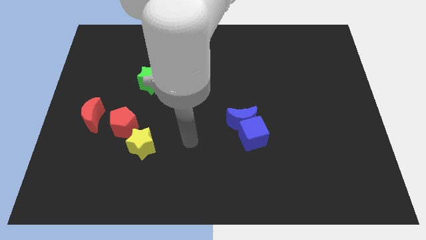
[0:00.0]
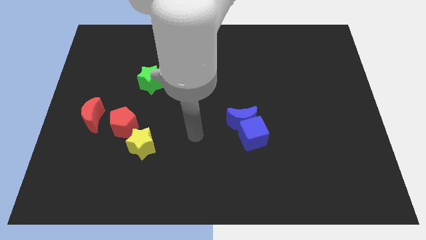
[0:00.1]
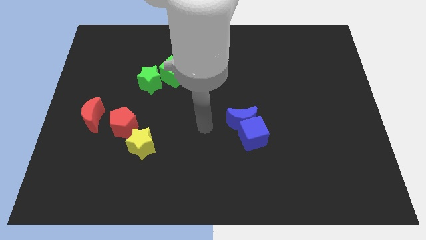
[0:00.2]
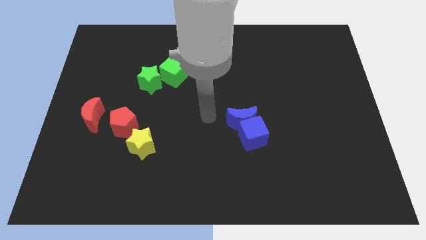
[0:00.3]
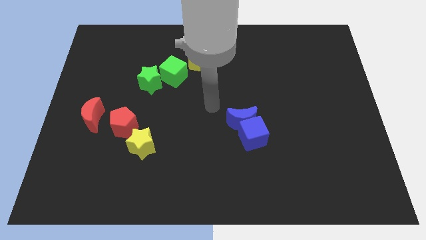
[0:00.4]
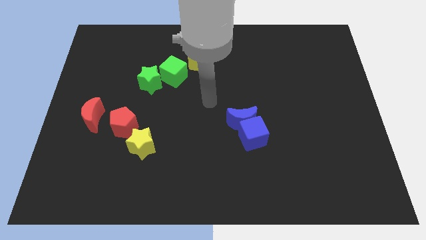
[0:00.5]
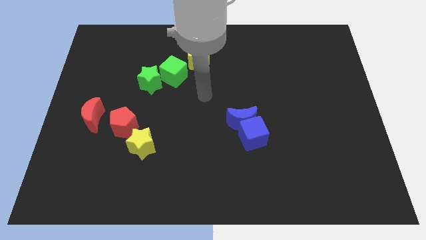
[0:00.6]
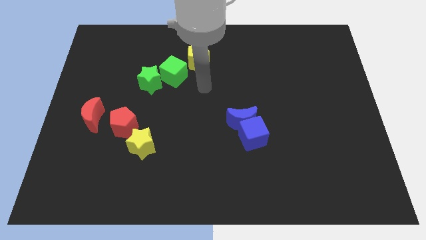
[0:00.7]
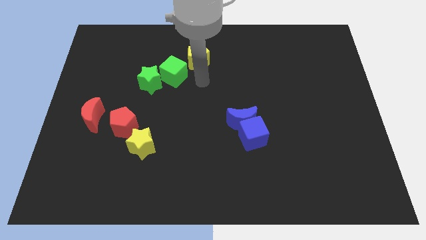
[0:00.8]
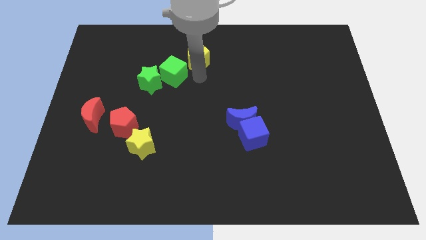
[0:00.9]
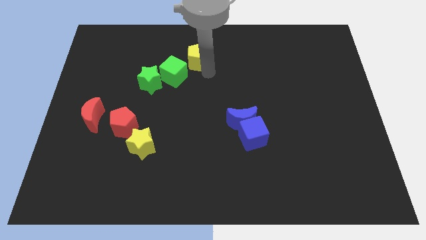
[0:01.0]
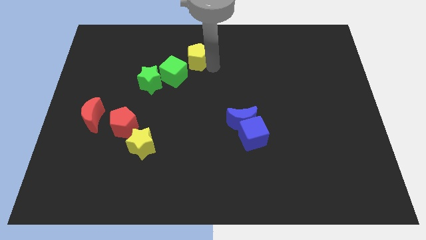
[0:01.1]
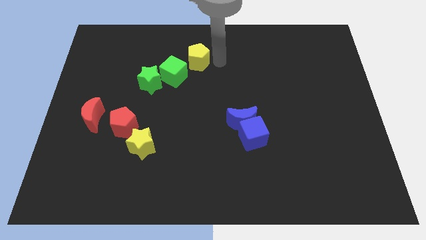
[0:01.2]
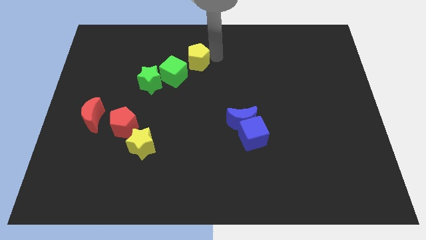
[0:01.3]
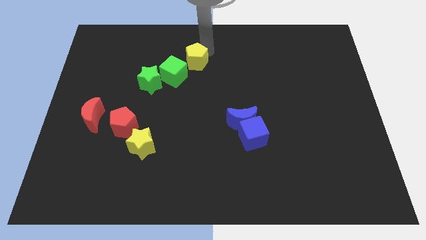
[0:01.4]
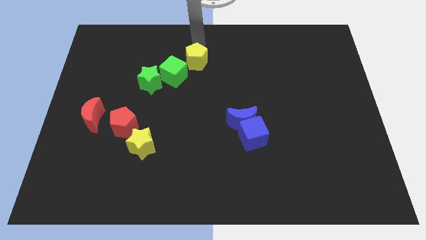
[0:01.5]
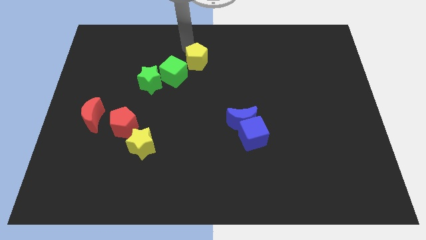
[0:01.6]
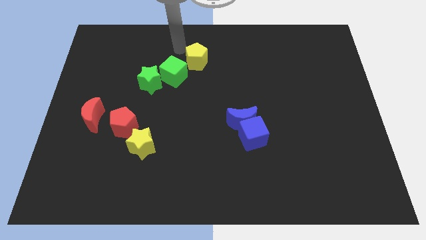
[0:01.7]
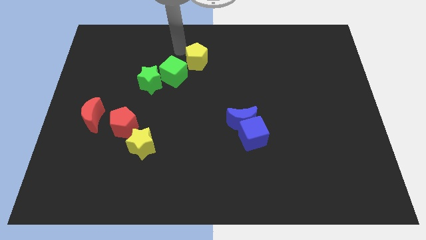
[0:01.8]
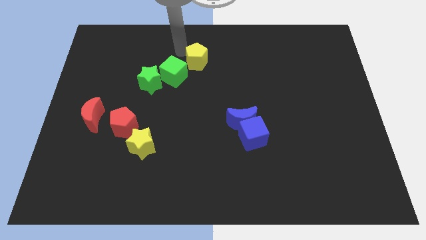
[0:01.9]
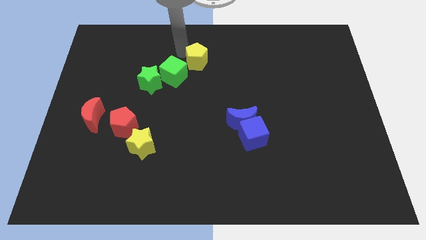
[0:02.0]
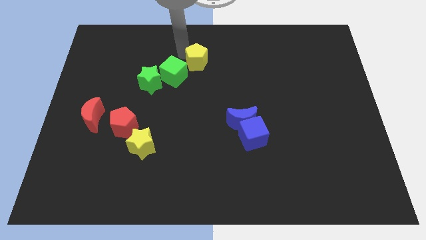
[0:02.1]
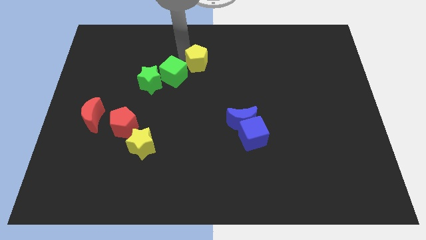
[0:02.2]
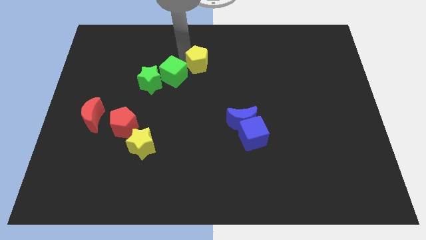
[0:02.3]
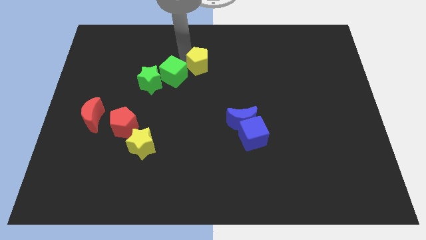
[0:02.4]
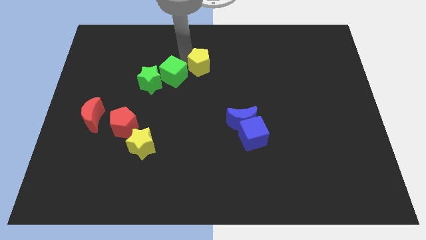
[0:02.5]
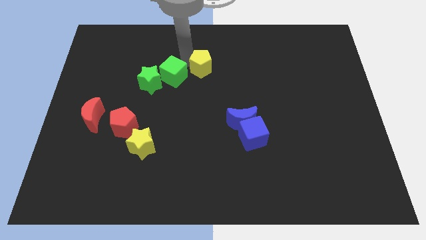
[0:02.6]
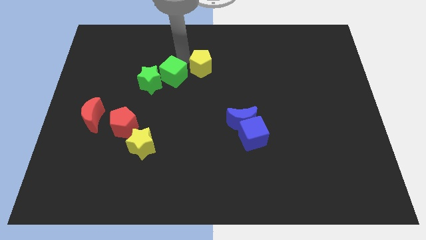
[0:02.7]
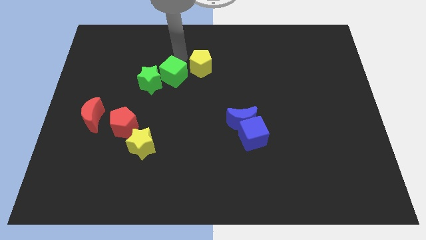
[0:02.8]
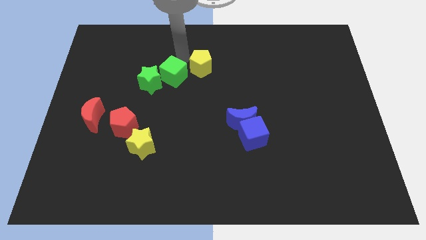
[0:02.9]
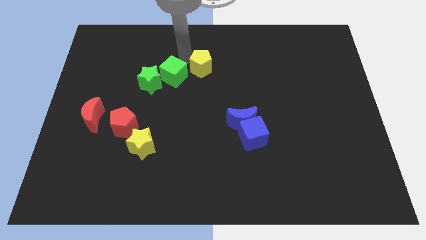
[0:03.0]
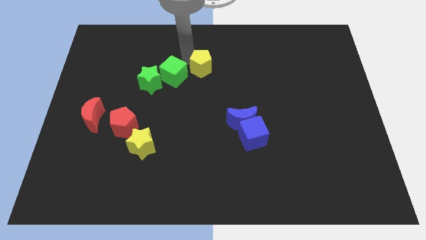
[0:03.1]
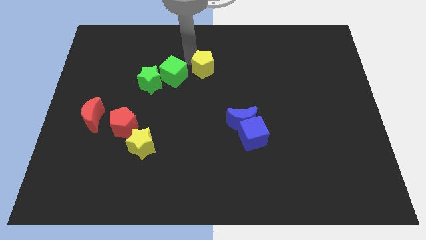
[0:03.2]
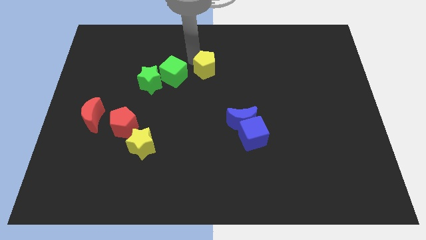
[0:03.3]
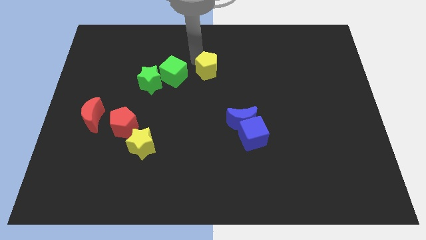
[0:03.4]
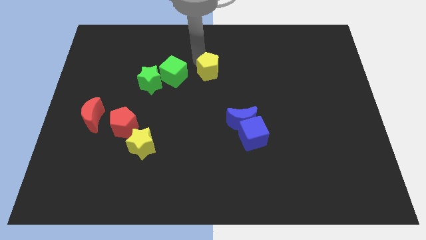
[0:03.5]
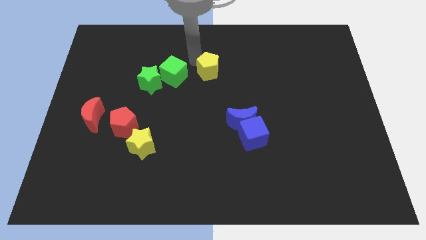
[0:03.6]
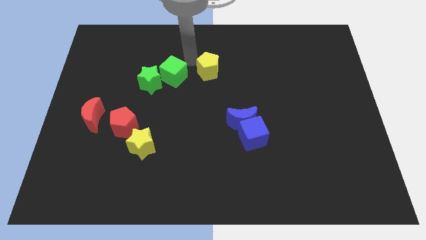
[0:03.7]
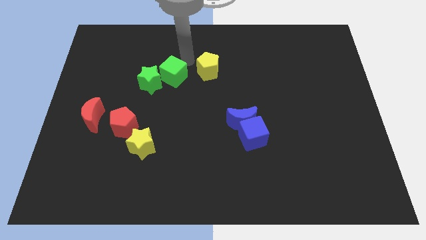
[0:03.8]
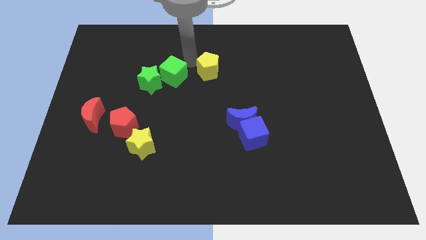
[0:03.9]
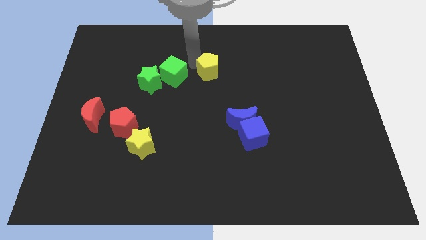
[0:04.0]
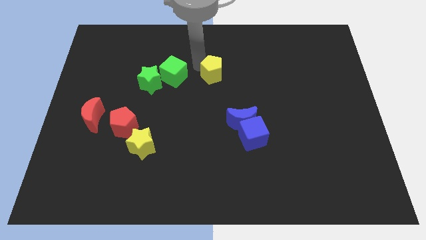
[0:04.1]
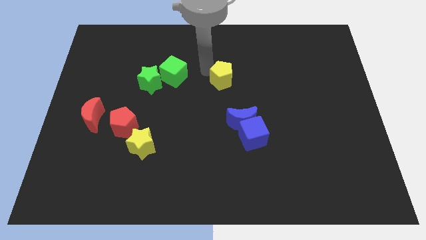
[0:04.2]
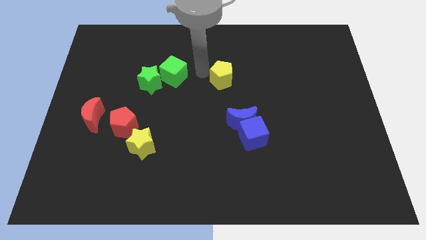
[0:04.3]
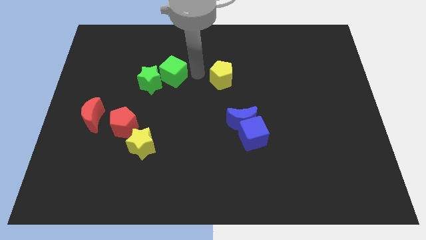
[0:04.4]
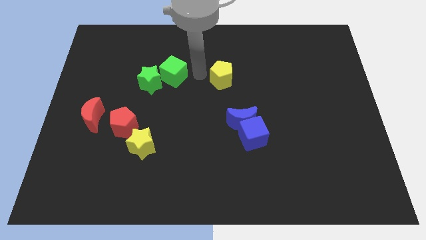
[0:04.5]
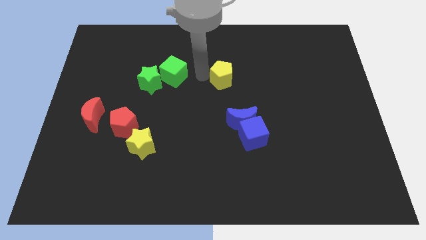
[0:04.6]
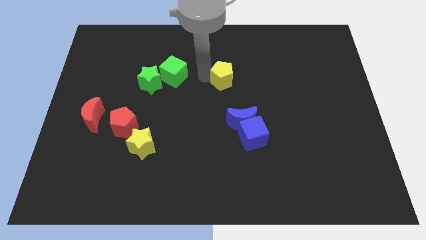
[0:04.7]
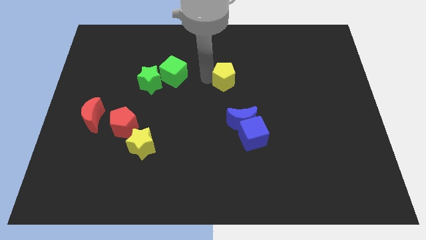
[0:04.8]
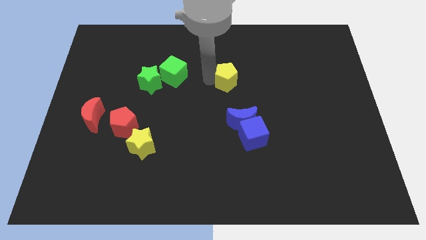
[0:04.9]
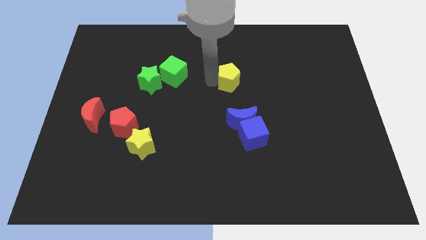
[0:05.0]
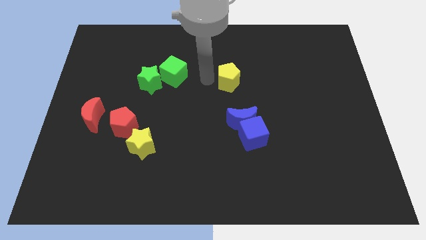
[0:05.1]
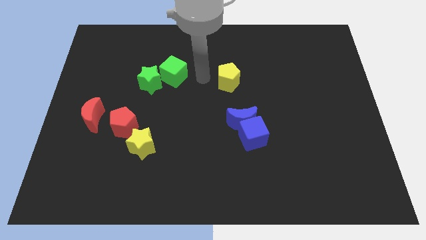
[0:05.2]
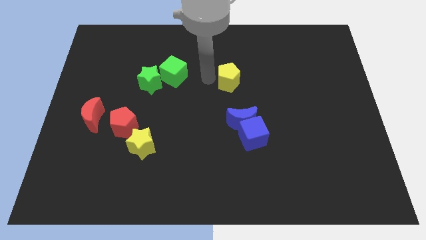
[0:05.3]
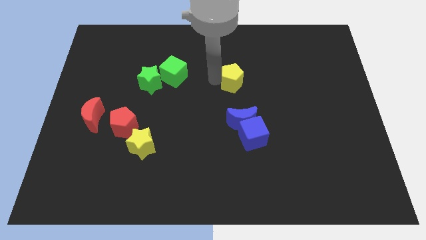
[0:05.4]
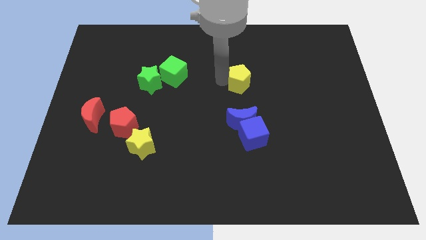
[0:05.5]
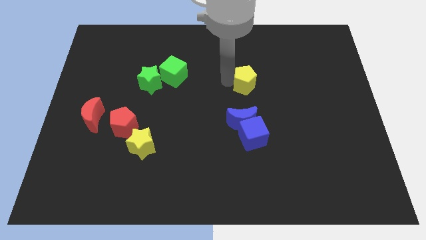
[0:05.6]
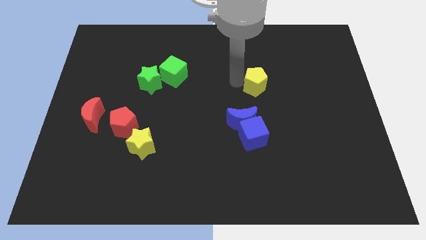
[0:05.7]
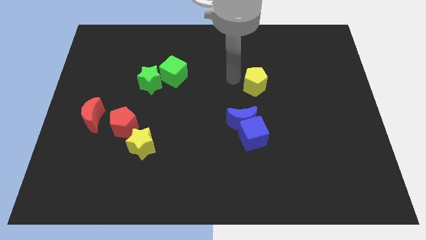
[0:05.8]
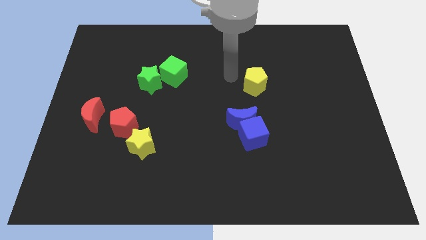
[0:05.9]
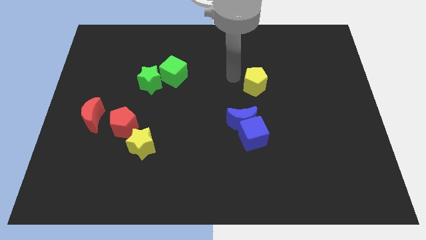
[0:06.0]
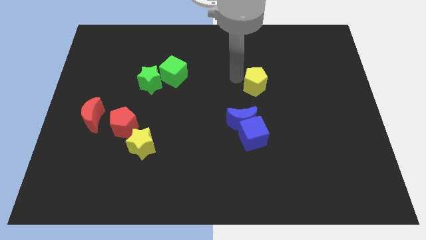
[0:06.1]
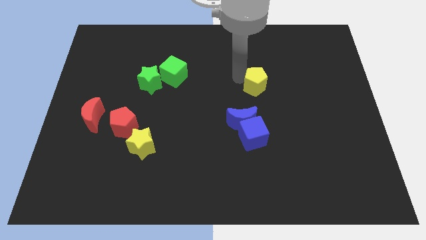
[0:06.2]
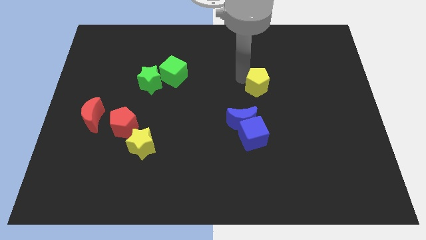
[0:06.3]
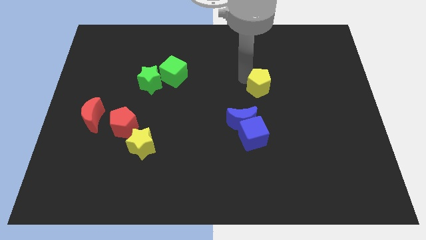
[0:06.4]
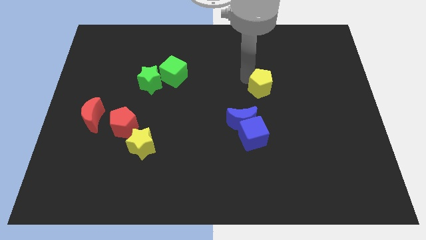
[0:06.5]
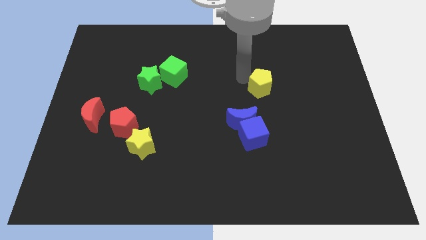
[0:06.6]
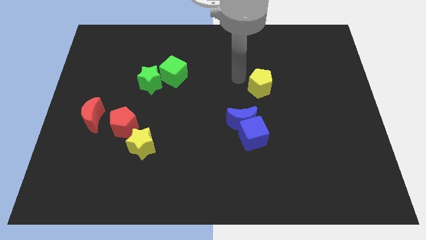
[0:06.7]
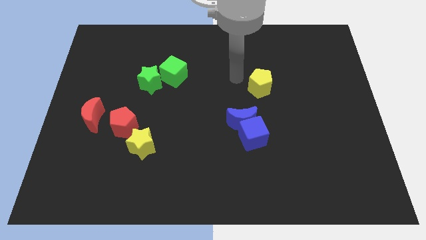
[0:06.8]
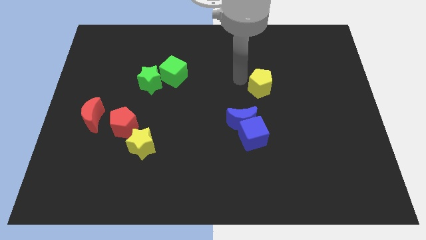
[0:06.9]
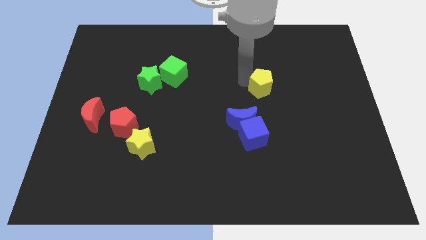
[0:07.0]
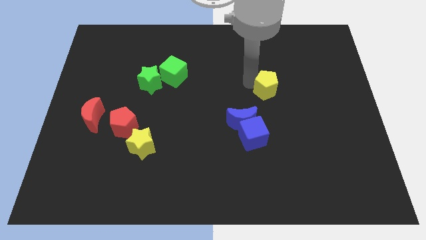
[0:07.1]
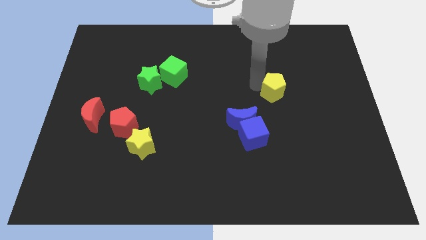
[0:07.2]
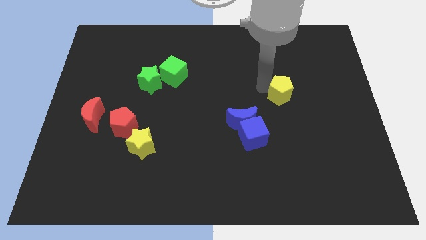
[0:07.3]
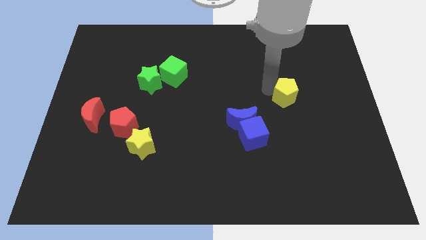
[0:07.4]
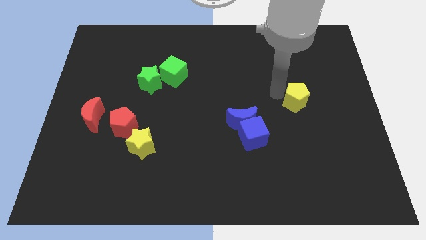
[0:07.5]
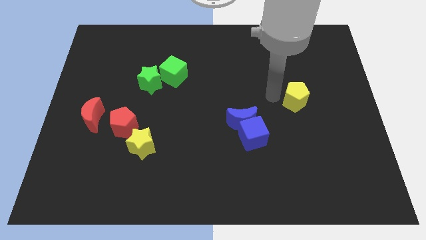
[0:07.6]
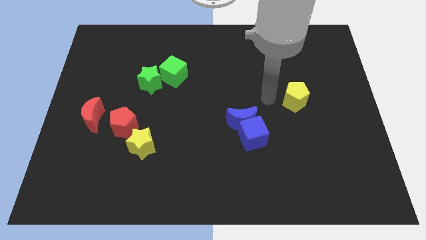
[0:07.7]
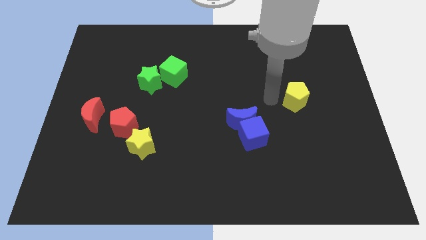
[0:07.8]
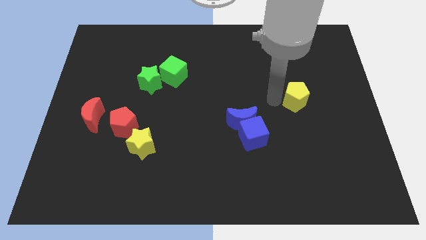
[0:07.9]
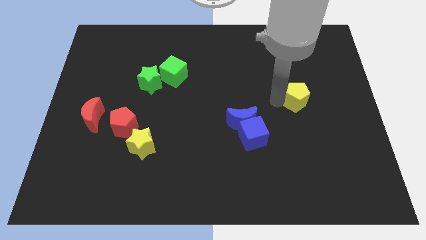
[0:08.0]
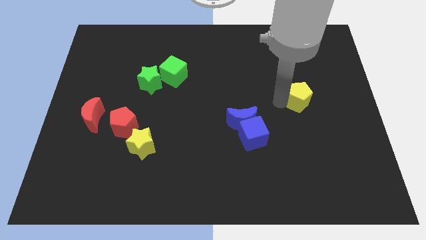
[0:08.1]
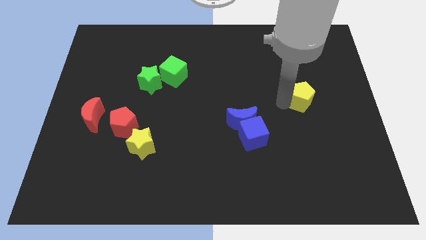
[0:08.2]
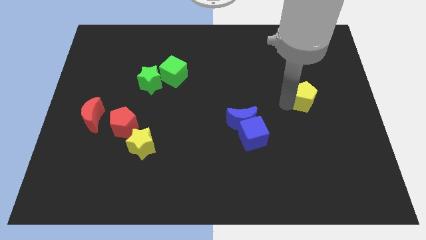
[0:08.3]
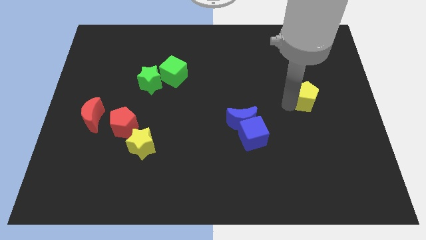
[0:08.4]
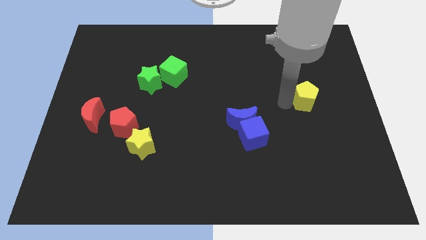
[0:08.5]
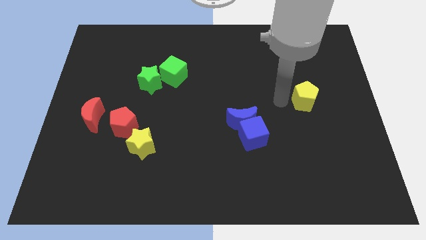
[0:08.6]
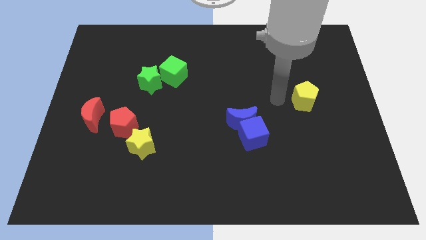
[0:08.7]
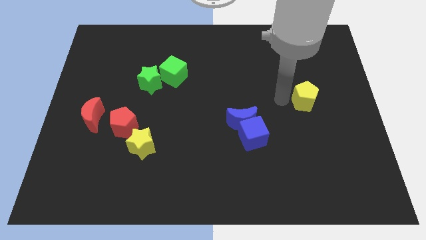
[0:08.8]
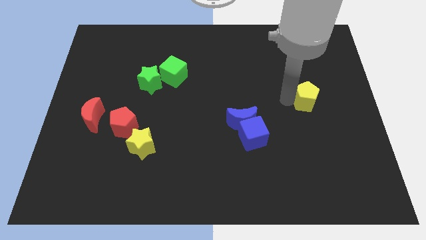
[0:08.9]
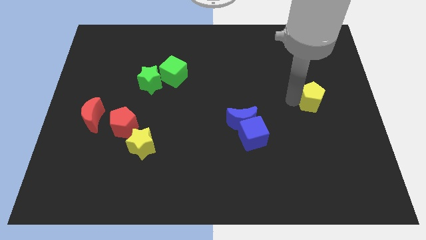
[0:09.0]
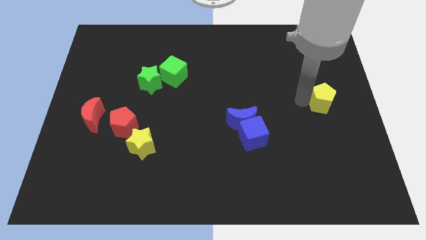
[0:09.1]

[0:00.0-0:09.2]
put the yellow pentagon to the center right
